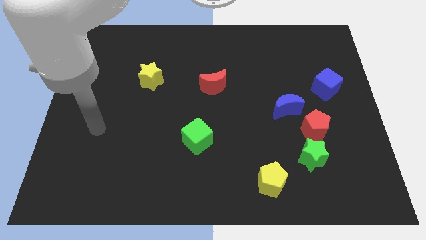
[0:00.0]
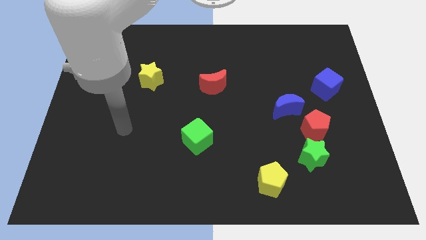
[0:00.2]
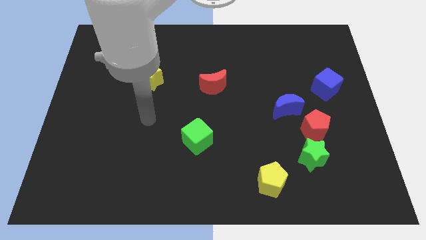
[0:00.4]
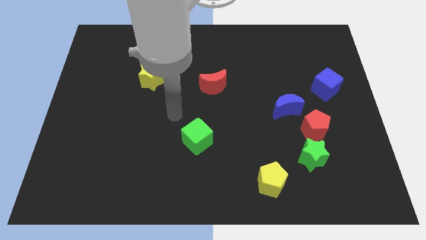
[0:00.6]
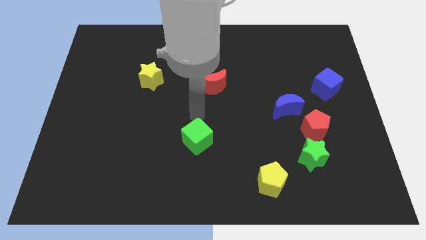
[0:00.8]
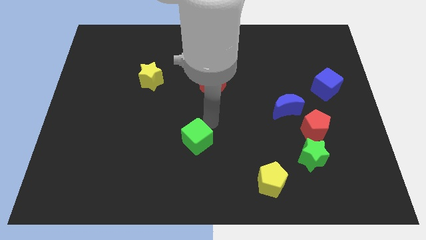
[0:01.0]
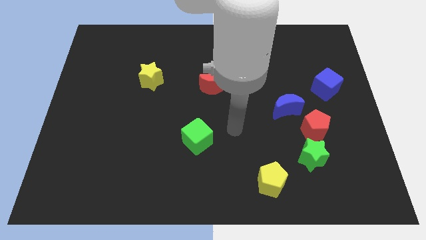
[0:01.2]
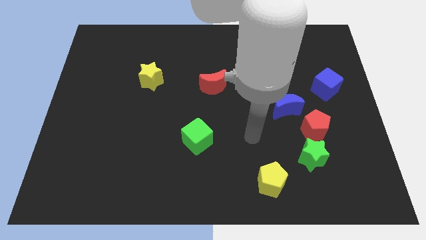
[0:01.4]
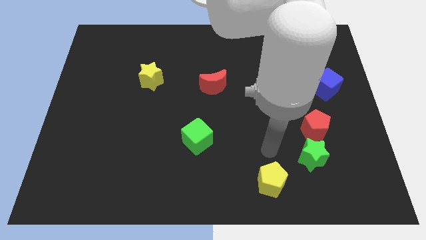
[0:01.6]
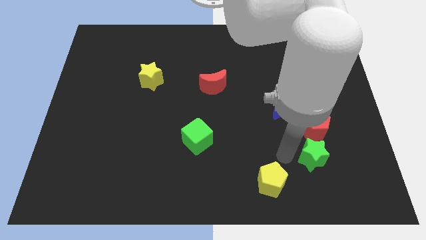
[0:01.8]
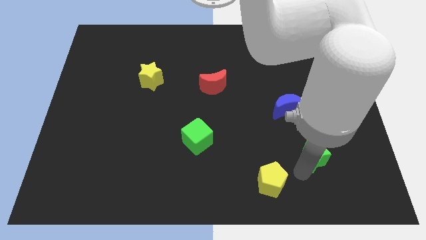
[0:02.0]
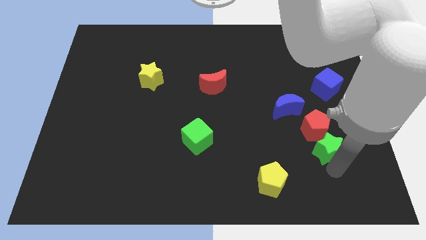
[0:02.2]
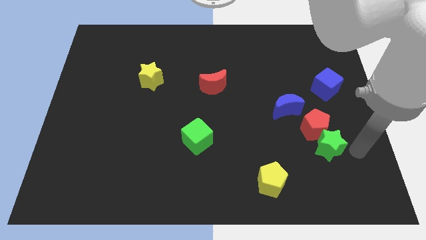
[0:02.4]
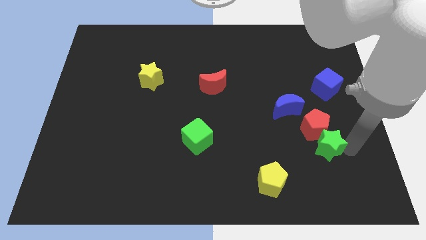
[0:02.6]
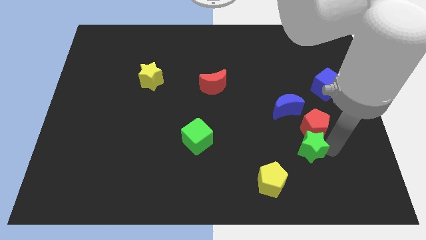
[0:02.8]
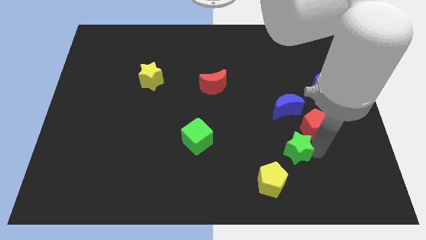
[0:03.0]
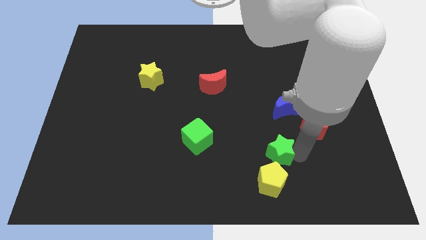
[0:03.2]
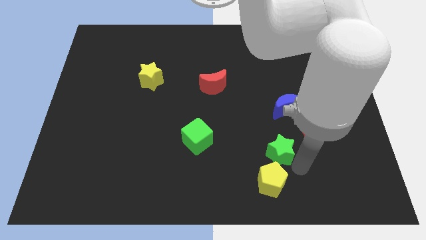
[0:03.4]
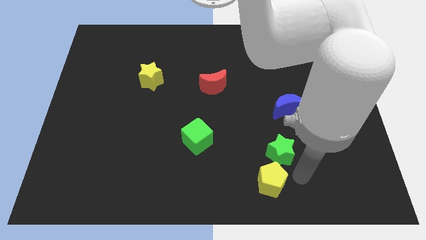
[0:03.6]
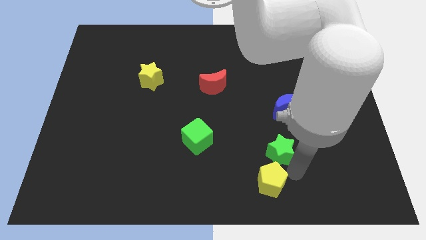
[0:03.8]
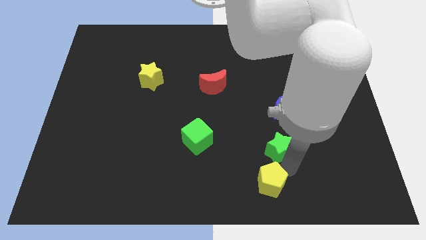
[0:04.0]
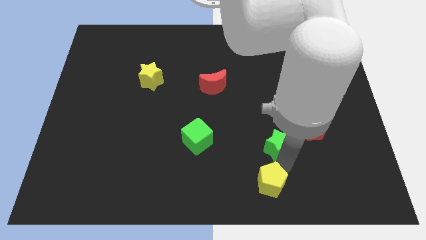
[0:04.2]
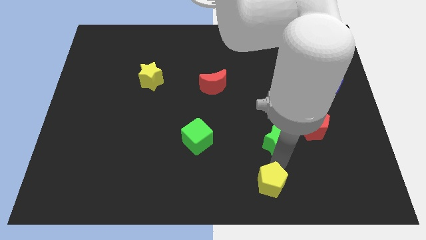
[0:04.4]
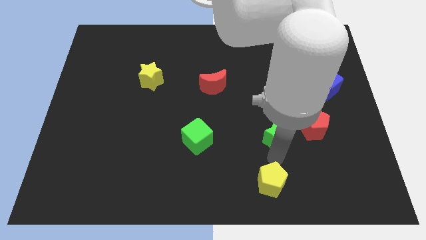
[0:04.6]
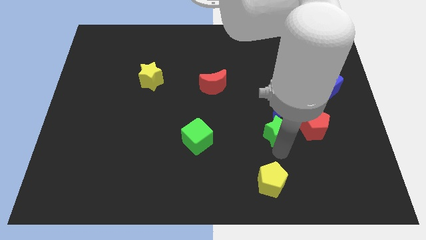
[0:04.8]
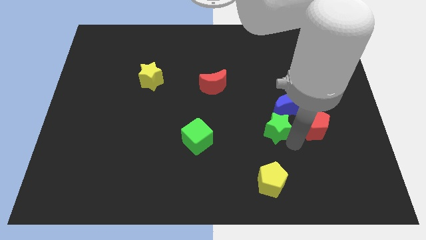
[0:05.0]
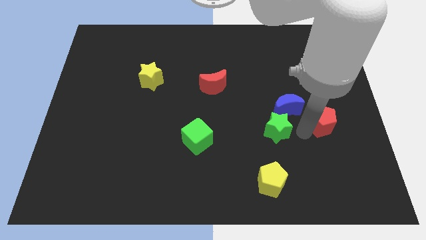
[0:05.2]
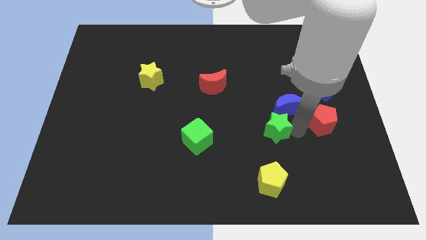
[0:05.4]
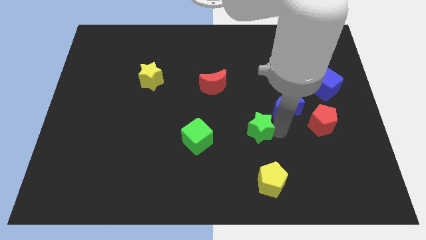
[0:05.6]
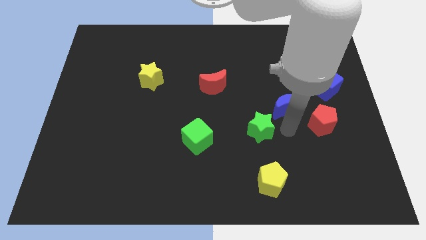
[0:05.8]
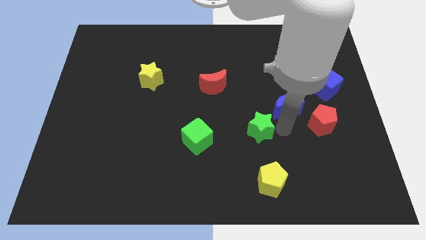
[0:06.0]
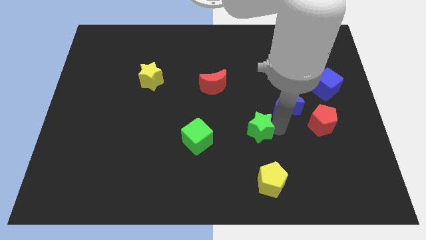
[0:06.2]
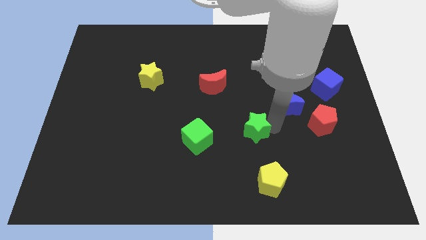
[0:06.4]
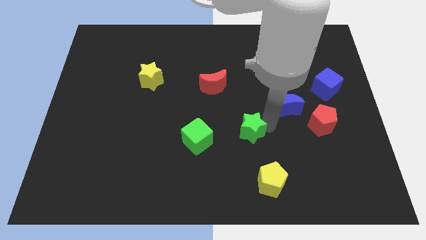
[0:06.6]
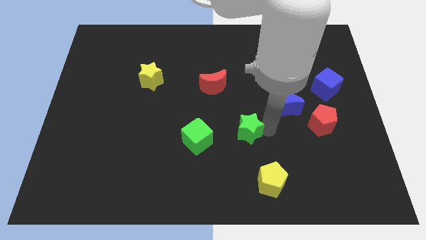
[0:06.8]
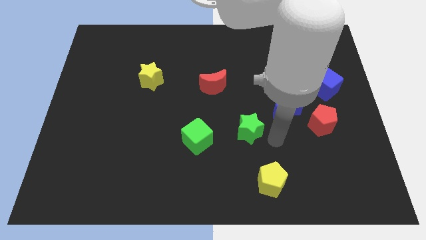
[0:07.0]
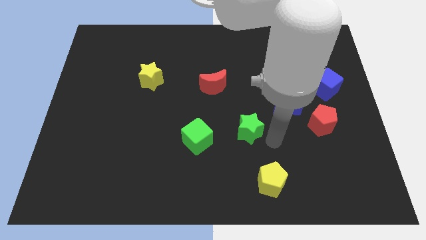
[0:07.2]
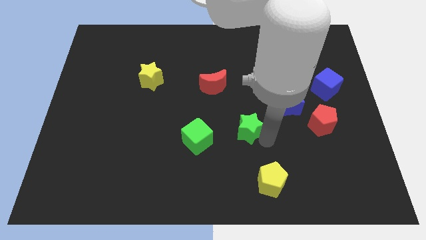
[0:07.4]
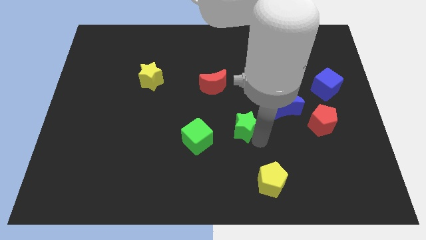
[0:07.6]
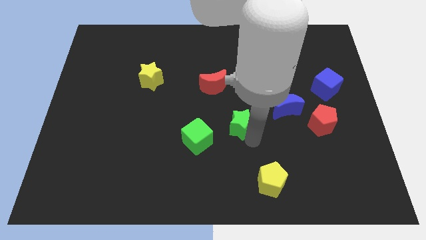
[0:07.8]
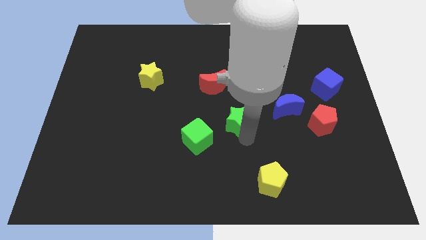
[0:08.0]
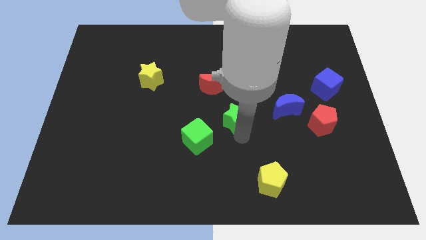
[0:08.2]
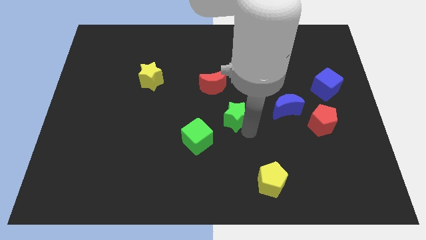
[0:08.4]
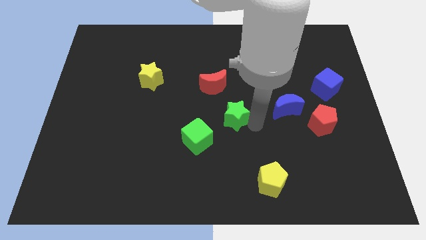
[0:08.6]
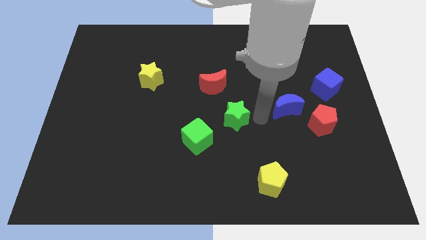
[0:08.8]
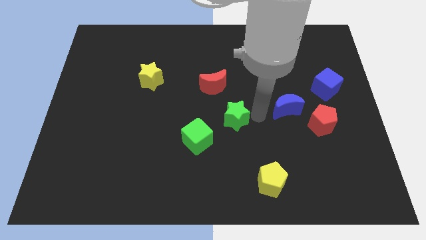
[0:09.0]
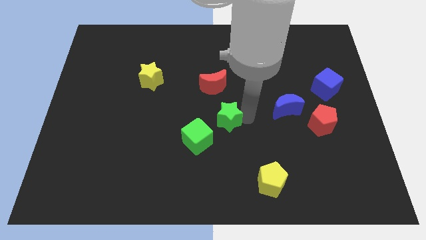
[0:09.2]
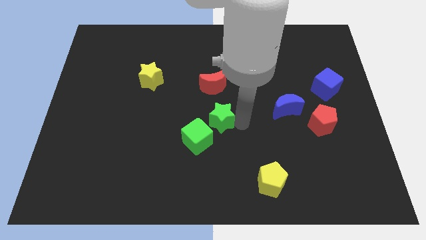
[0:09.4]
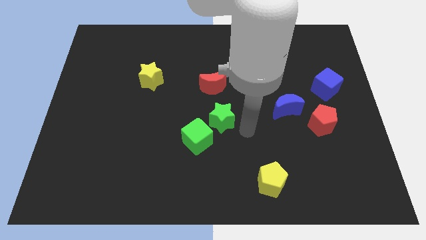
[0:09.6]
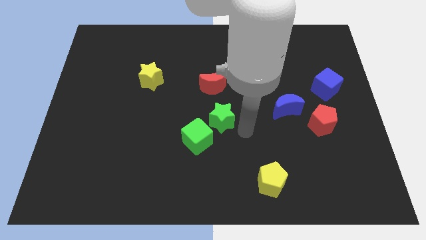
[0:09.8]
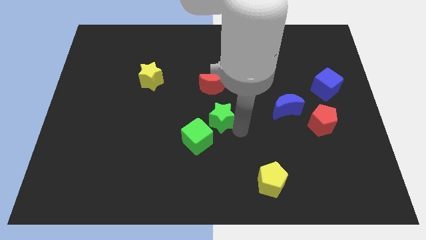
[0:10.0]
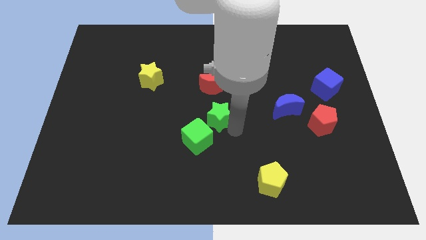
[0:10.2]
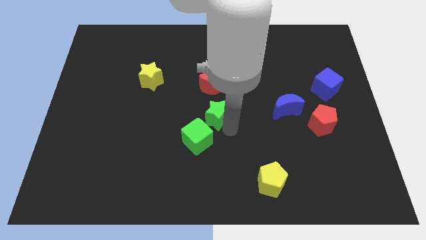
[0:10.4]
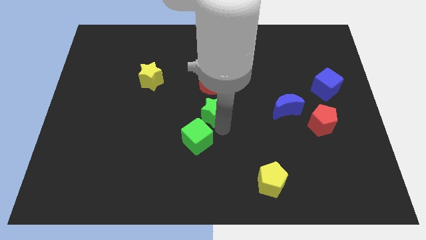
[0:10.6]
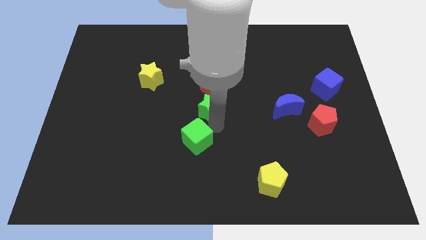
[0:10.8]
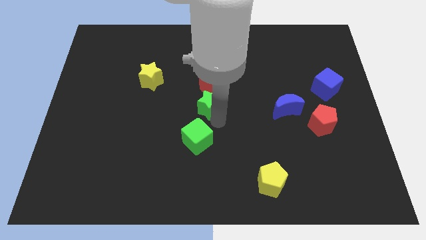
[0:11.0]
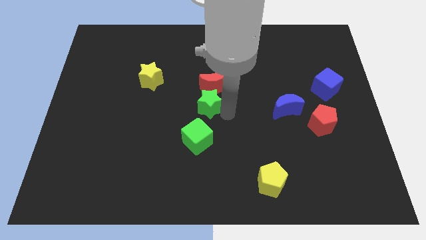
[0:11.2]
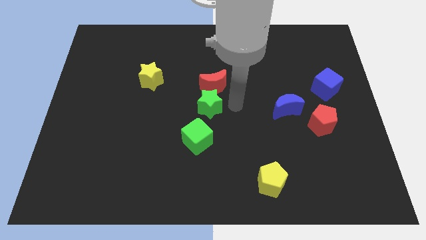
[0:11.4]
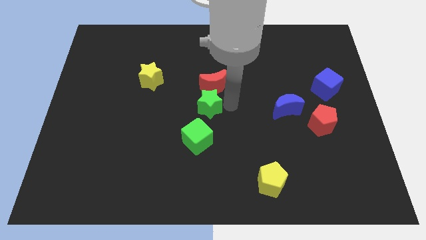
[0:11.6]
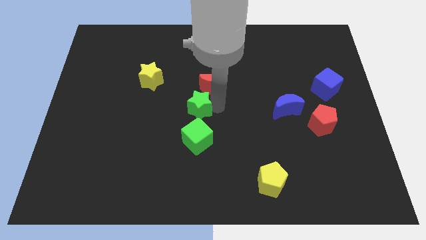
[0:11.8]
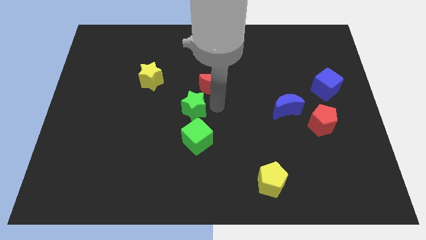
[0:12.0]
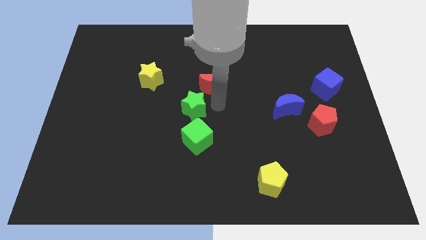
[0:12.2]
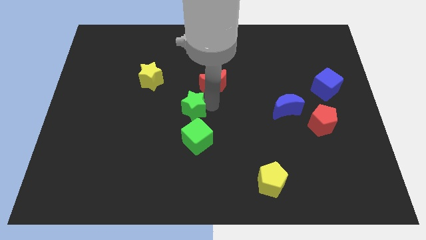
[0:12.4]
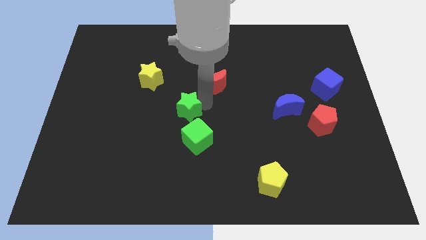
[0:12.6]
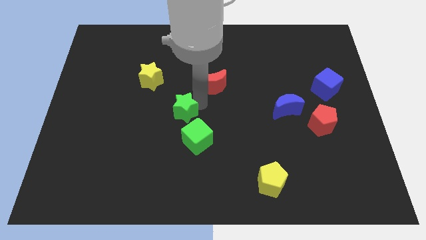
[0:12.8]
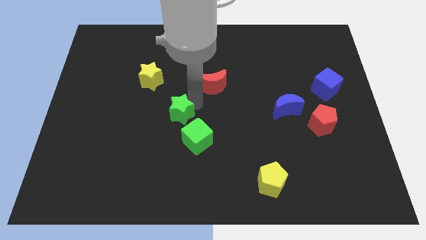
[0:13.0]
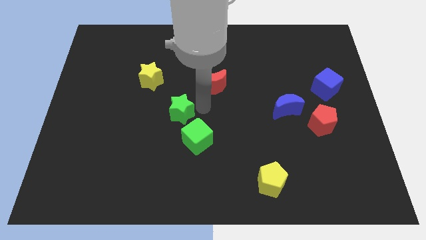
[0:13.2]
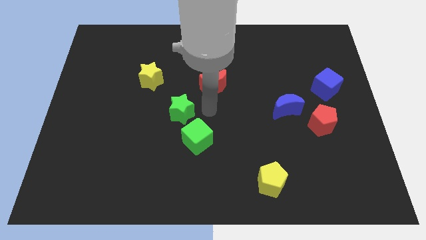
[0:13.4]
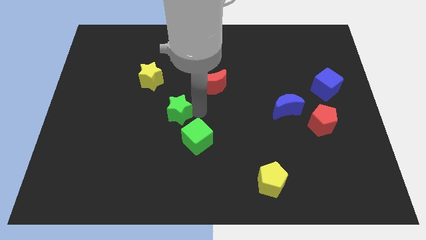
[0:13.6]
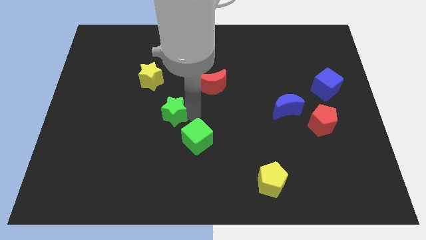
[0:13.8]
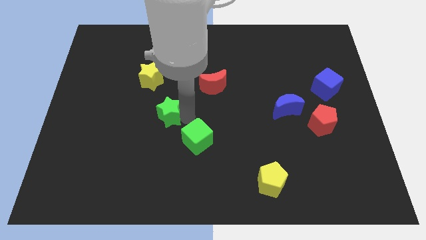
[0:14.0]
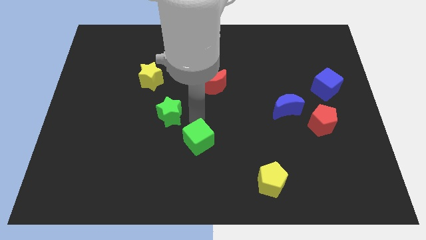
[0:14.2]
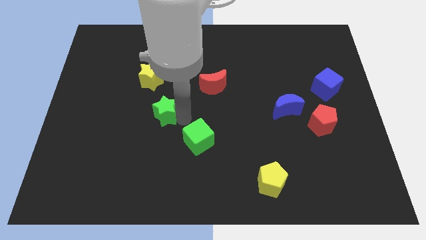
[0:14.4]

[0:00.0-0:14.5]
move the green star to the bottom of the yellow star
